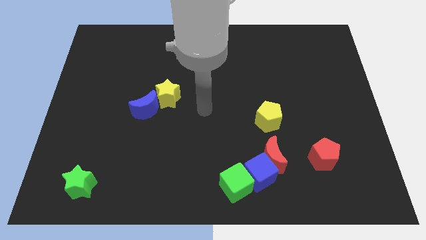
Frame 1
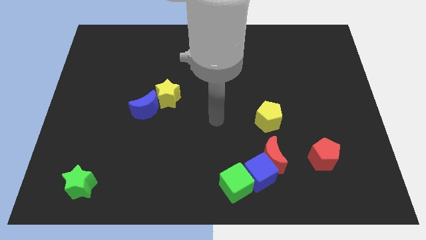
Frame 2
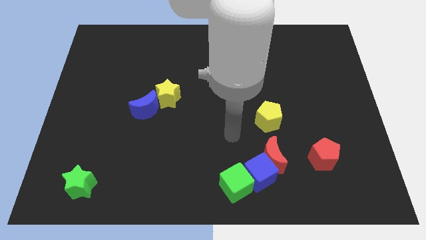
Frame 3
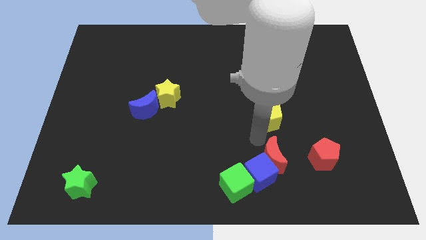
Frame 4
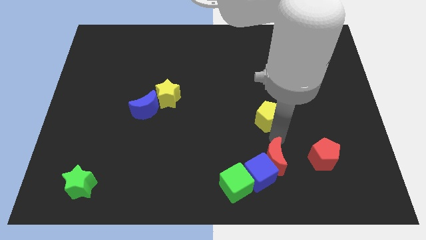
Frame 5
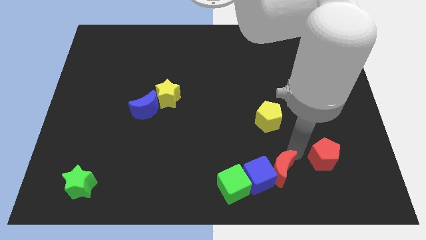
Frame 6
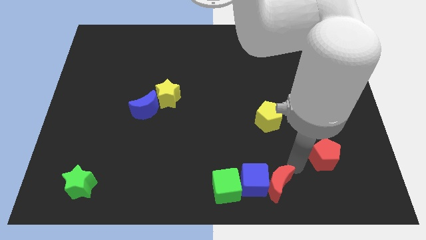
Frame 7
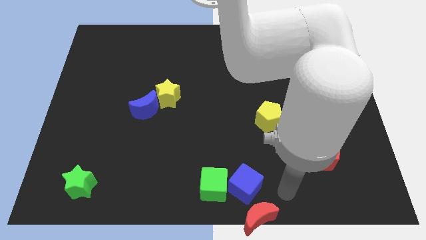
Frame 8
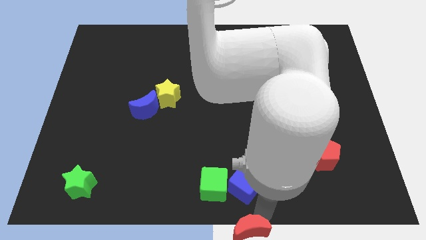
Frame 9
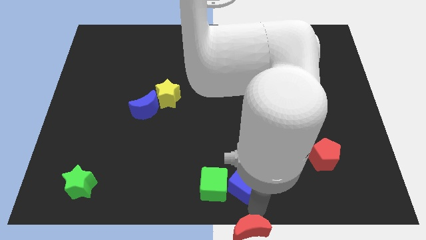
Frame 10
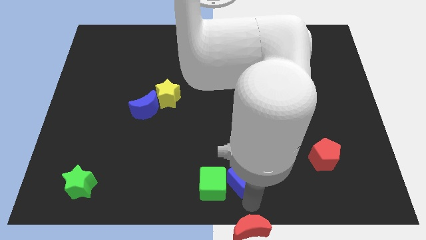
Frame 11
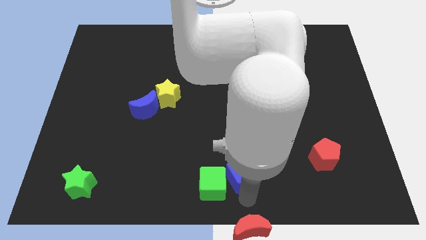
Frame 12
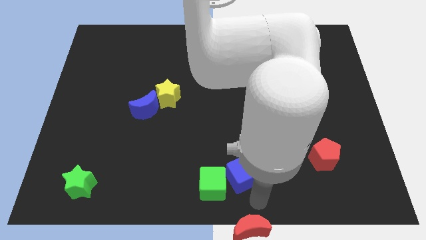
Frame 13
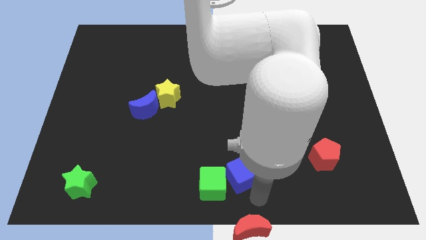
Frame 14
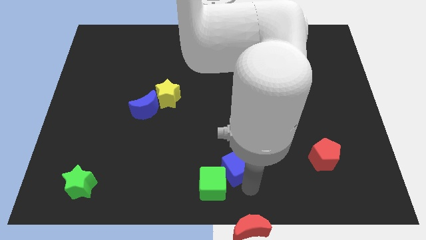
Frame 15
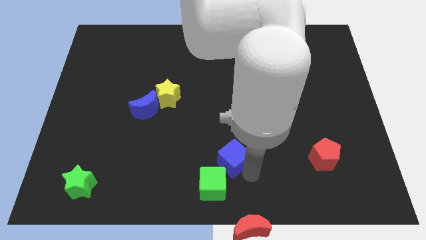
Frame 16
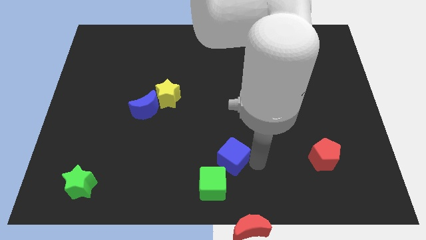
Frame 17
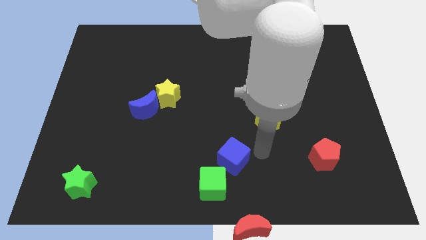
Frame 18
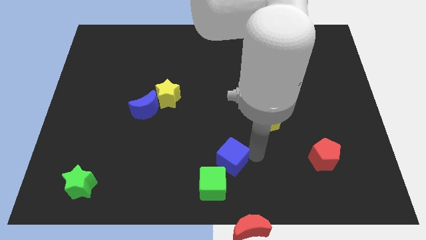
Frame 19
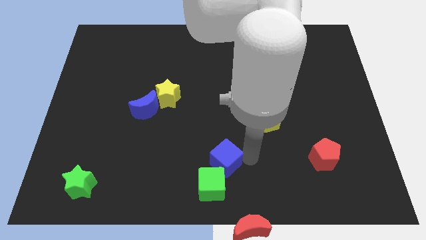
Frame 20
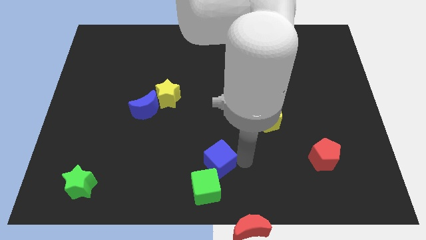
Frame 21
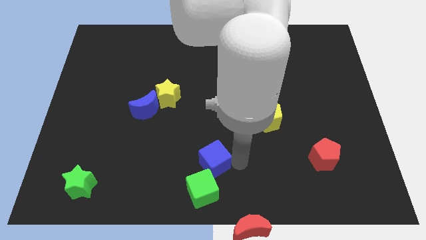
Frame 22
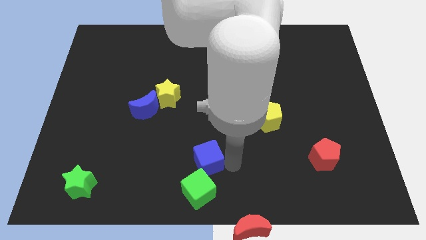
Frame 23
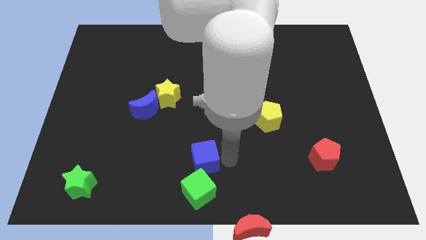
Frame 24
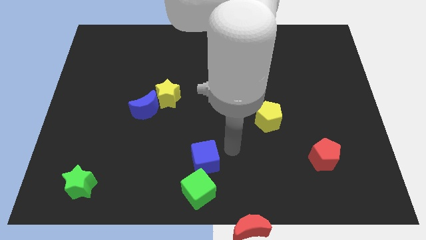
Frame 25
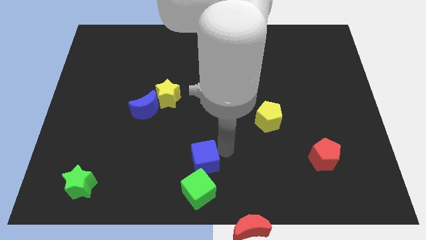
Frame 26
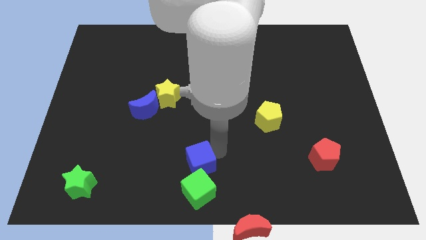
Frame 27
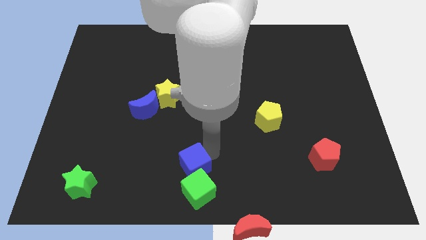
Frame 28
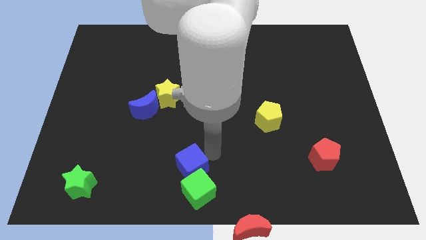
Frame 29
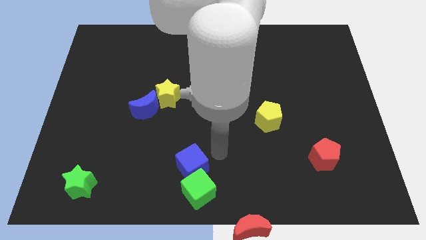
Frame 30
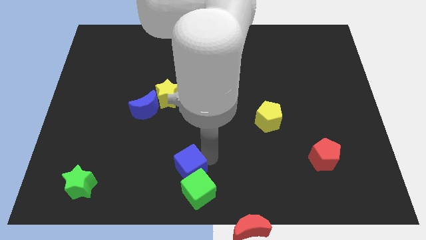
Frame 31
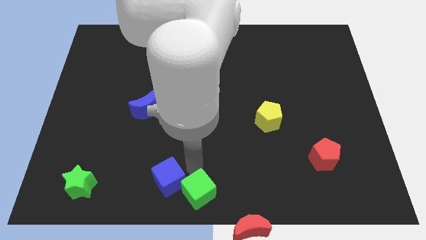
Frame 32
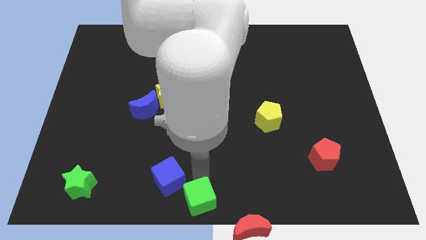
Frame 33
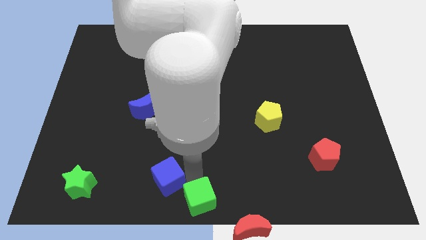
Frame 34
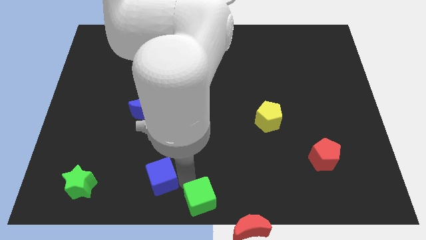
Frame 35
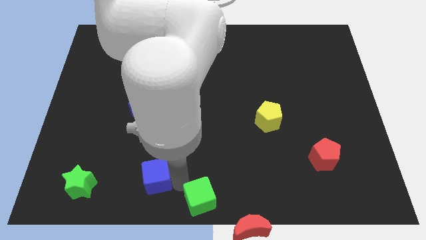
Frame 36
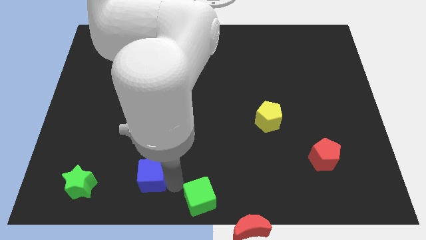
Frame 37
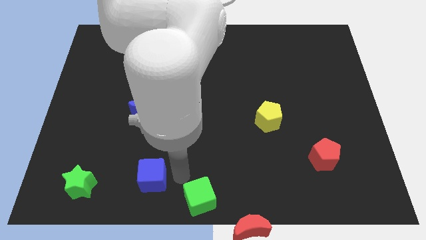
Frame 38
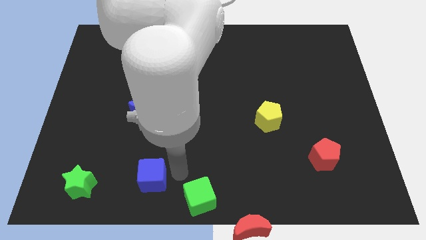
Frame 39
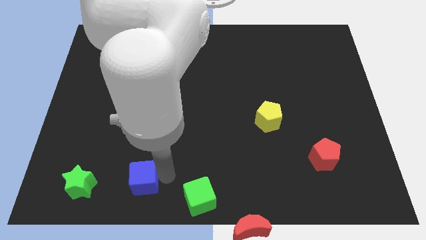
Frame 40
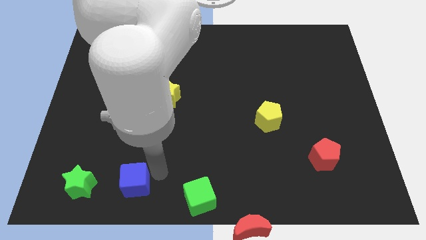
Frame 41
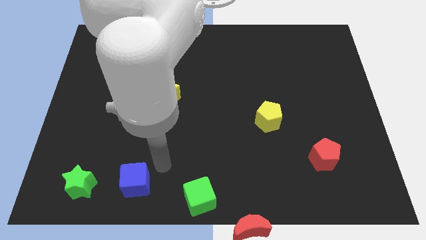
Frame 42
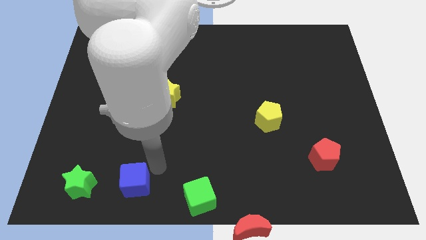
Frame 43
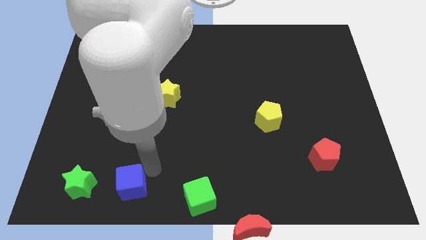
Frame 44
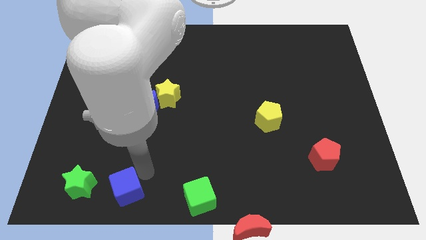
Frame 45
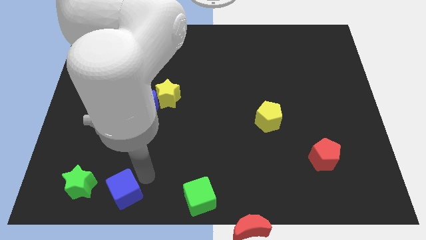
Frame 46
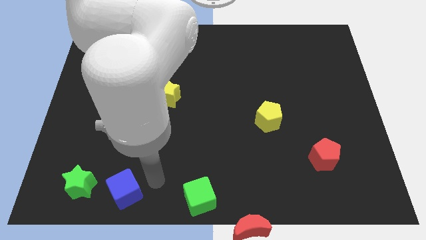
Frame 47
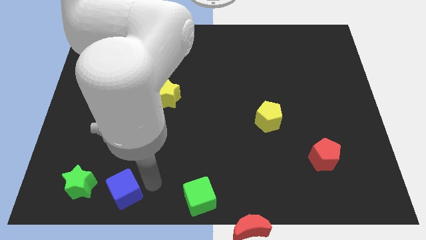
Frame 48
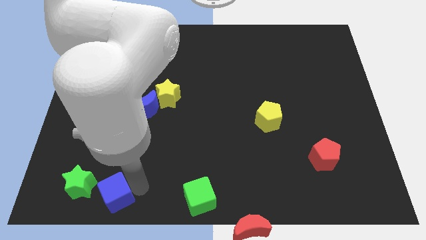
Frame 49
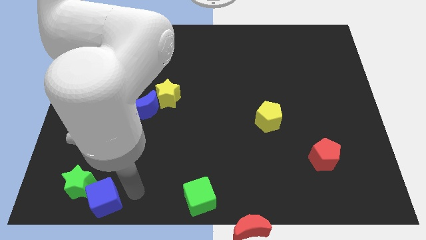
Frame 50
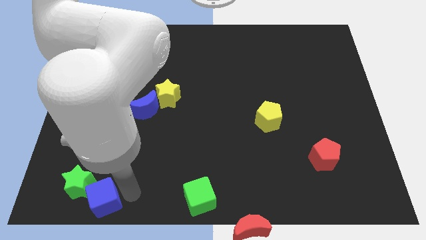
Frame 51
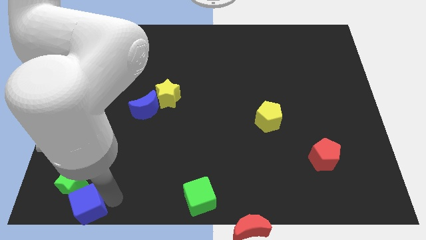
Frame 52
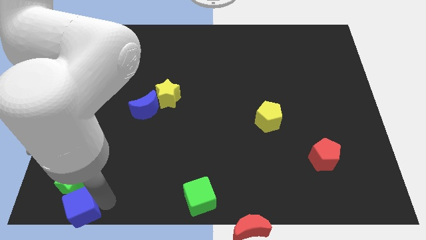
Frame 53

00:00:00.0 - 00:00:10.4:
put the blue cube to the lower left corner

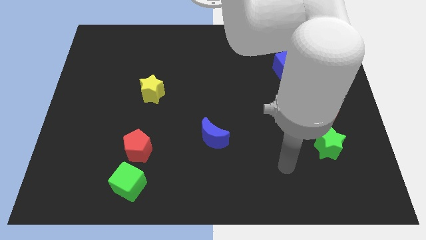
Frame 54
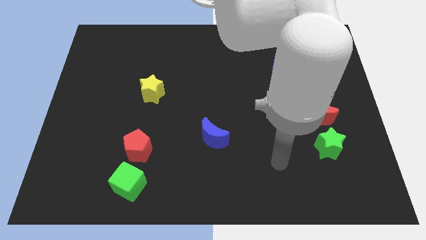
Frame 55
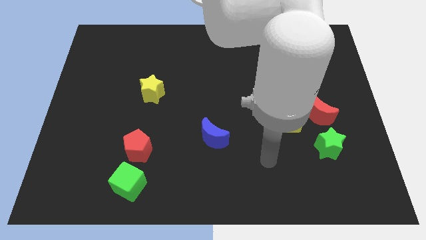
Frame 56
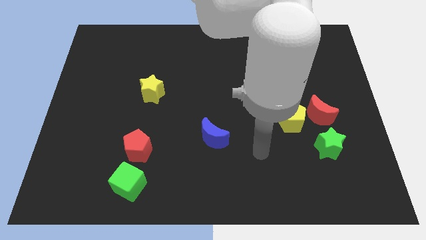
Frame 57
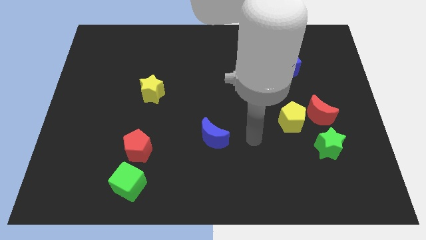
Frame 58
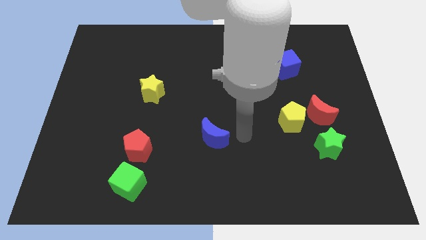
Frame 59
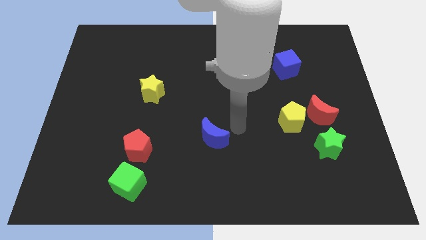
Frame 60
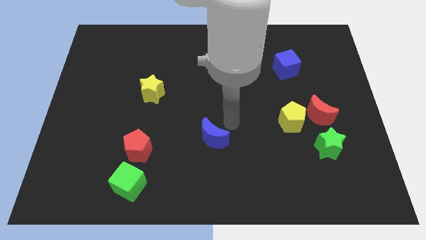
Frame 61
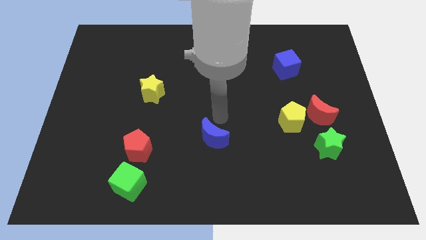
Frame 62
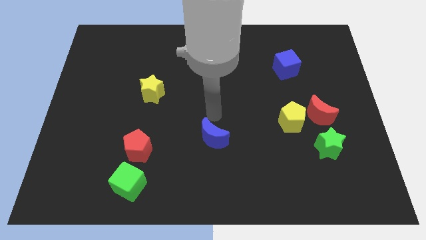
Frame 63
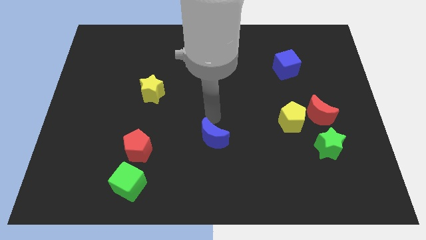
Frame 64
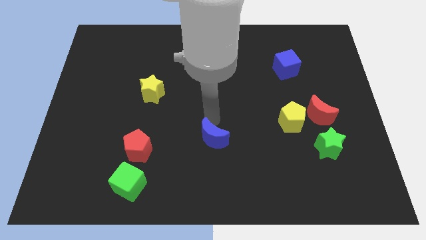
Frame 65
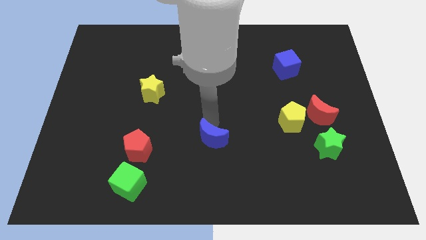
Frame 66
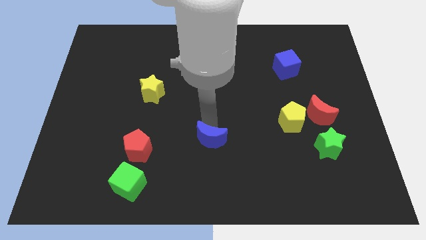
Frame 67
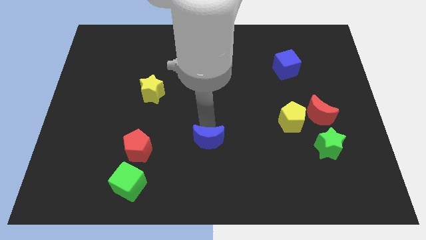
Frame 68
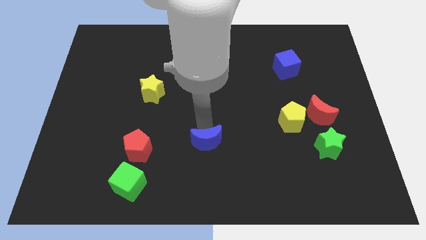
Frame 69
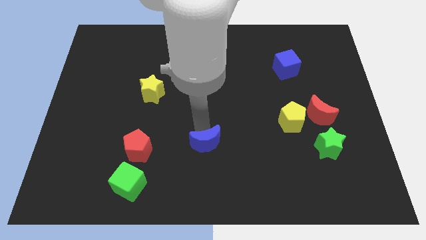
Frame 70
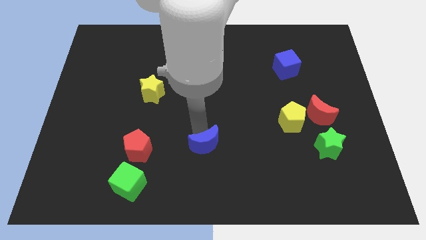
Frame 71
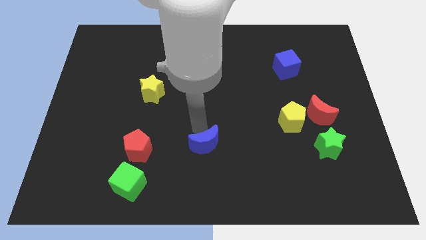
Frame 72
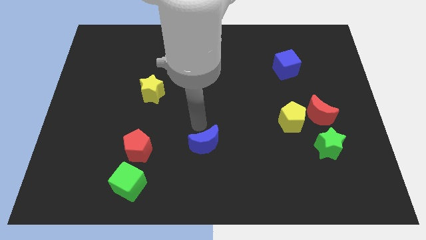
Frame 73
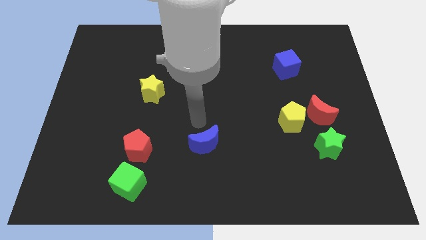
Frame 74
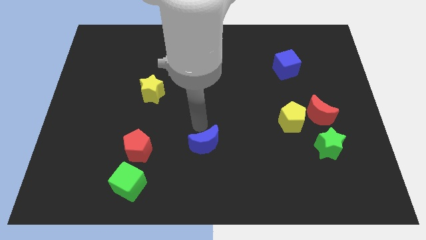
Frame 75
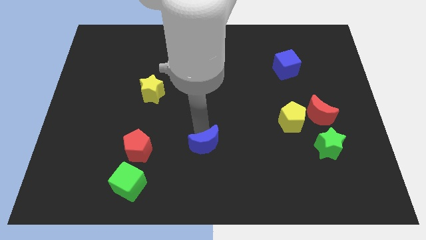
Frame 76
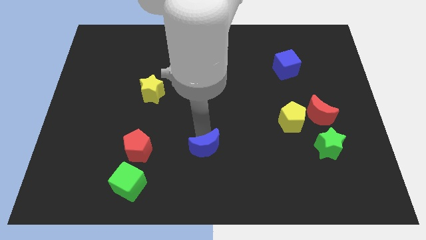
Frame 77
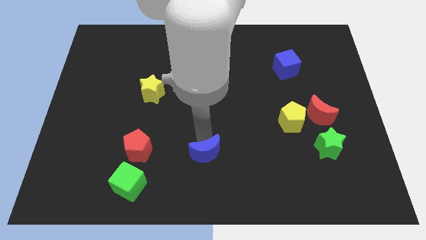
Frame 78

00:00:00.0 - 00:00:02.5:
push the blue moon to the bottom side
